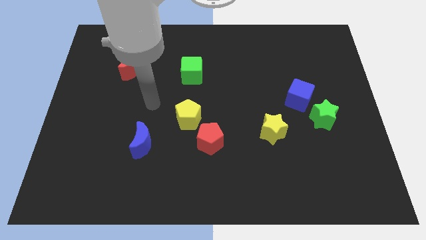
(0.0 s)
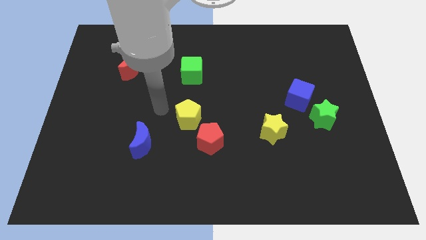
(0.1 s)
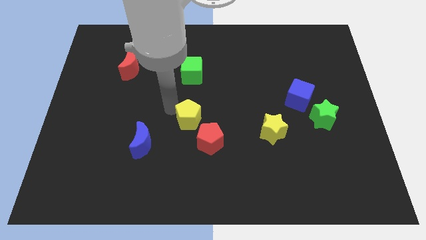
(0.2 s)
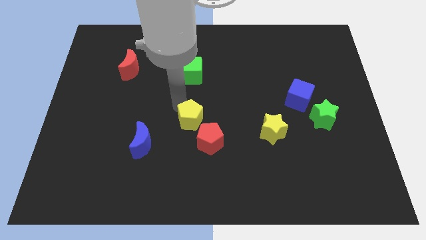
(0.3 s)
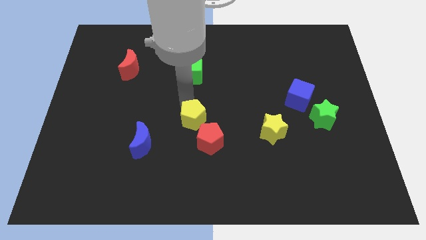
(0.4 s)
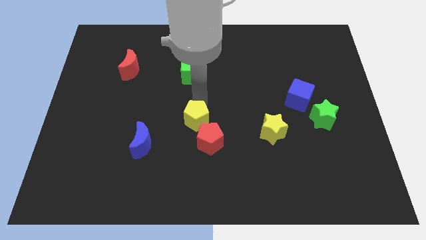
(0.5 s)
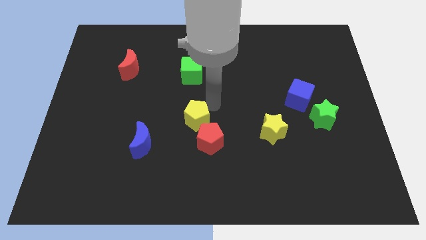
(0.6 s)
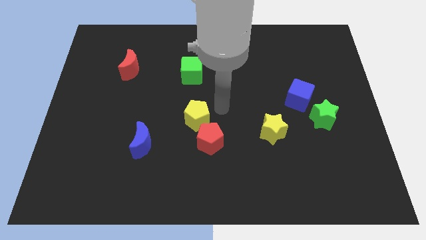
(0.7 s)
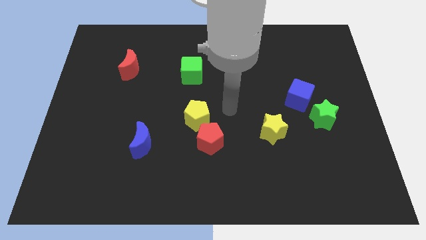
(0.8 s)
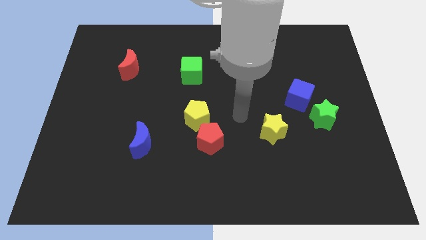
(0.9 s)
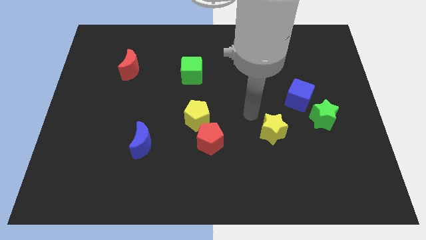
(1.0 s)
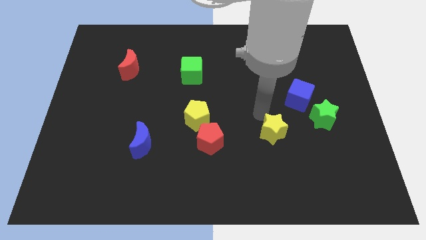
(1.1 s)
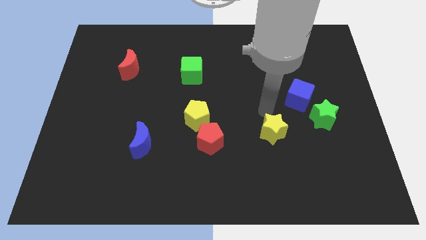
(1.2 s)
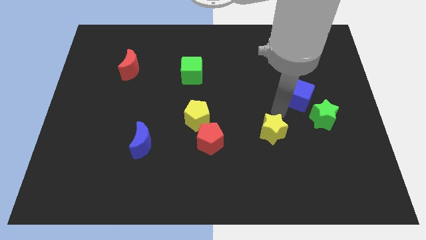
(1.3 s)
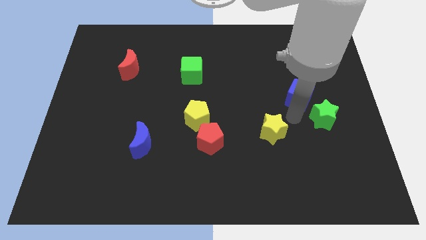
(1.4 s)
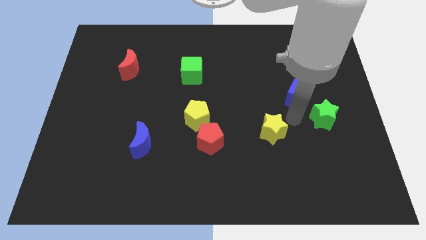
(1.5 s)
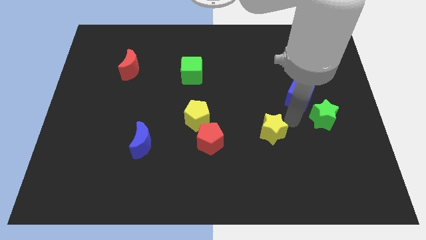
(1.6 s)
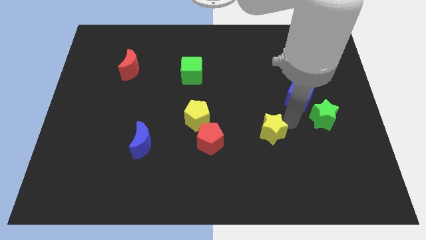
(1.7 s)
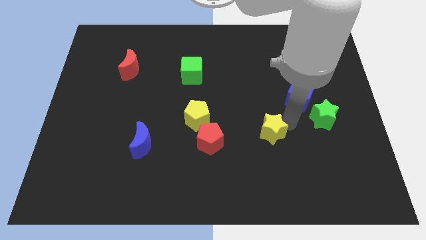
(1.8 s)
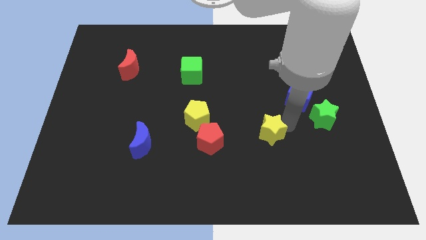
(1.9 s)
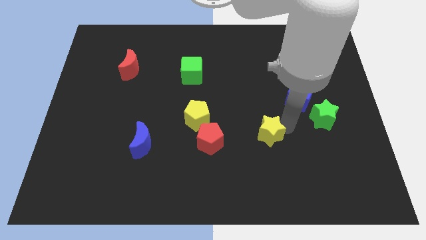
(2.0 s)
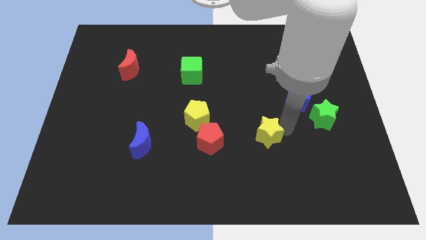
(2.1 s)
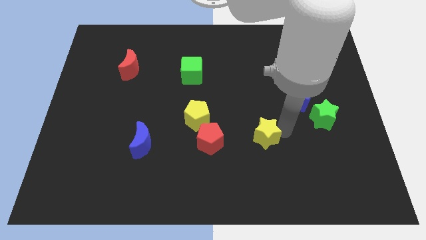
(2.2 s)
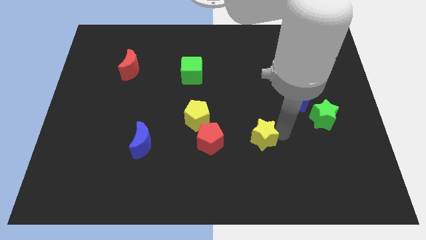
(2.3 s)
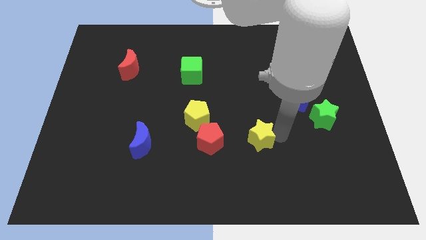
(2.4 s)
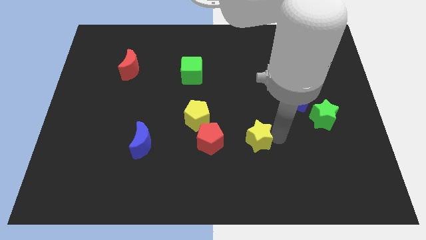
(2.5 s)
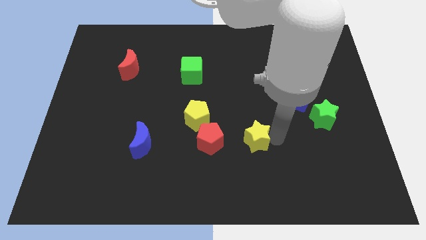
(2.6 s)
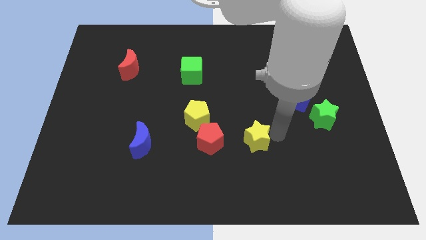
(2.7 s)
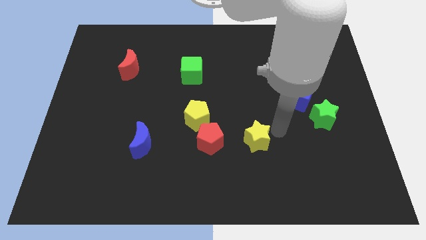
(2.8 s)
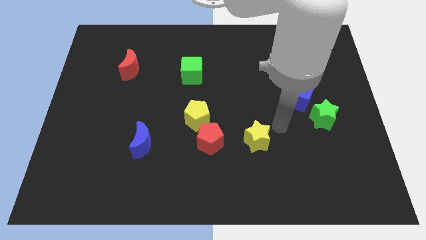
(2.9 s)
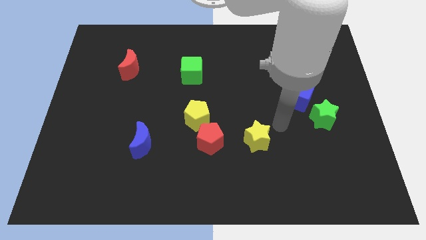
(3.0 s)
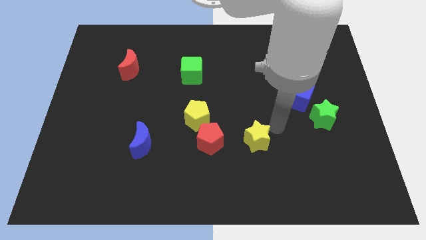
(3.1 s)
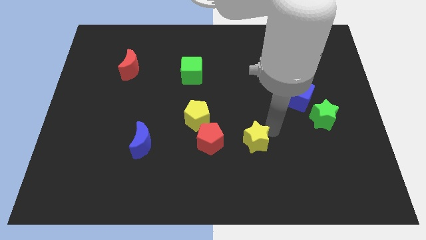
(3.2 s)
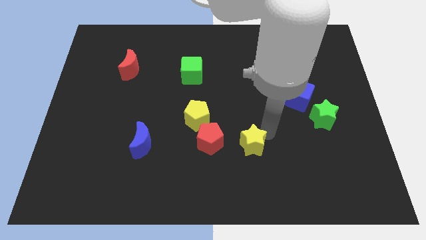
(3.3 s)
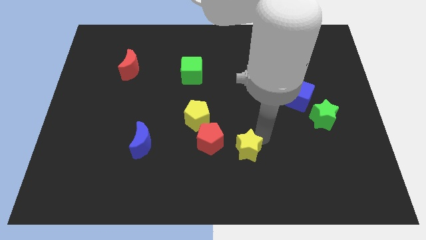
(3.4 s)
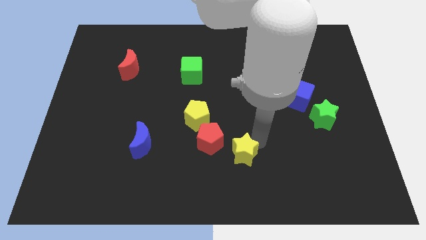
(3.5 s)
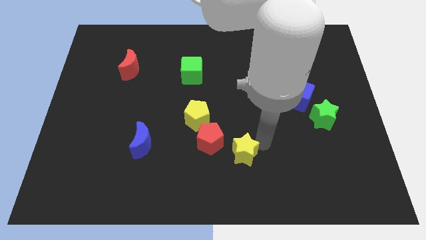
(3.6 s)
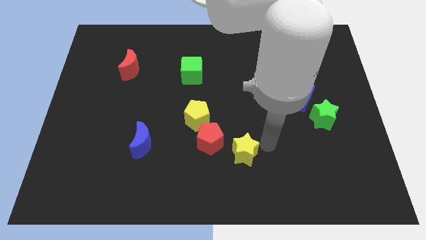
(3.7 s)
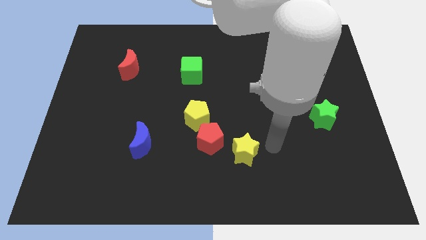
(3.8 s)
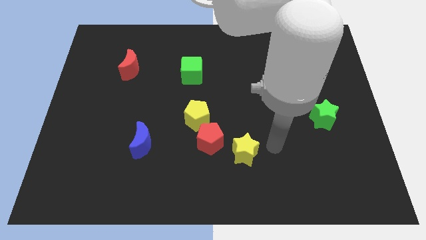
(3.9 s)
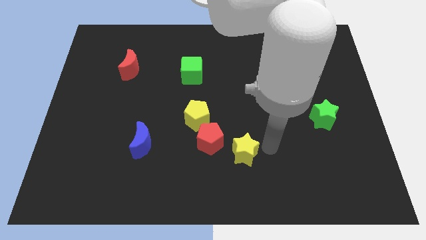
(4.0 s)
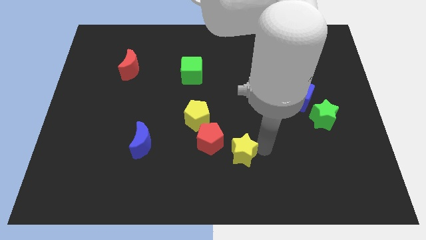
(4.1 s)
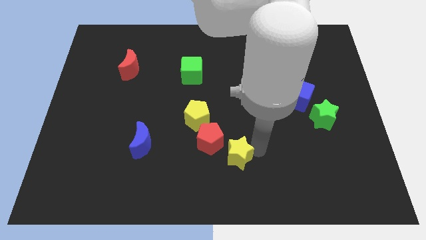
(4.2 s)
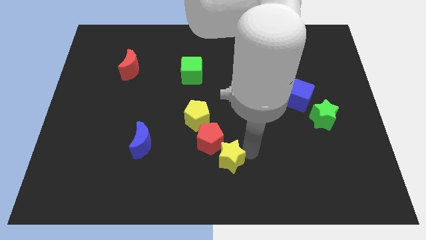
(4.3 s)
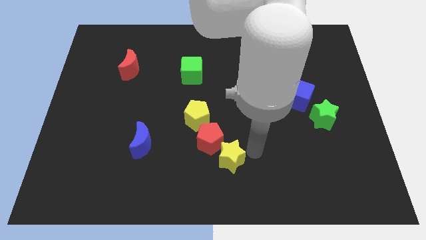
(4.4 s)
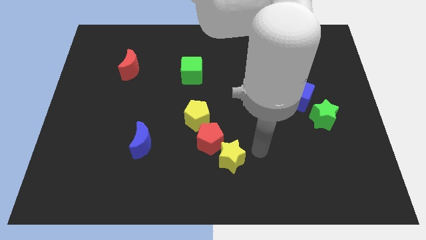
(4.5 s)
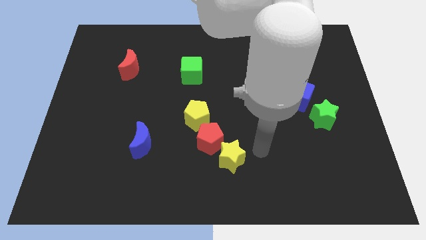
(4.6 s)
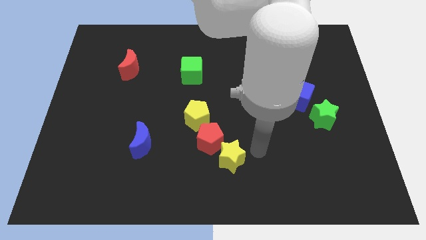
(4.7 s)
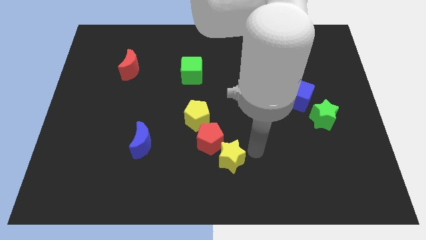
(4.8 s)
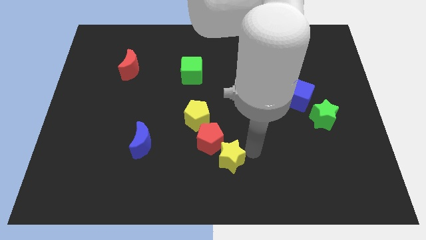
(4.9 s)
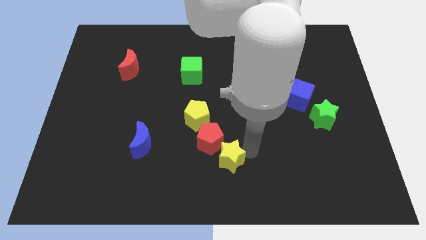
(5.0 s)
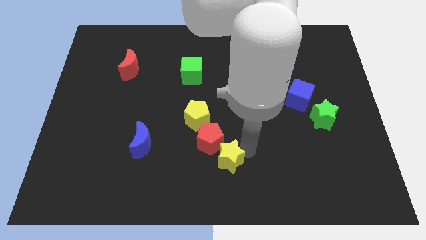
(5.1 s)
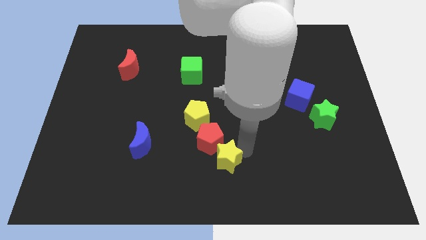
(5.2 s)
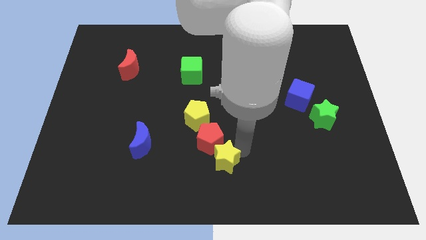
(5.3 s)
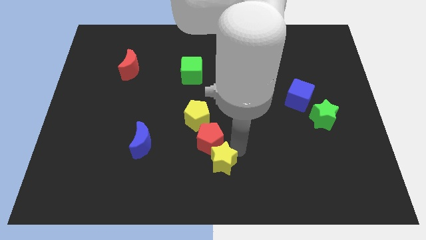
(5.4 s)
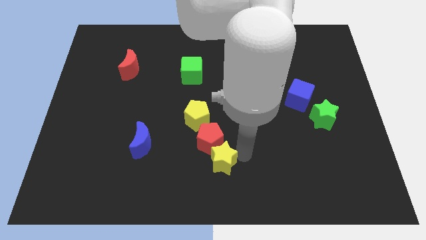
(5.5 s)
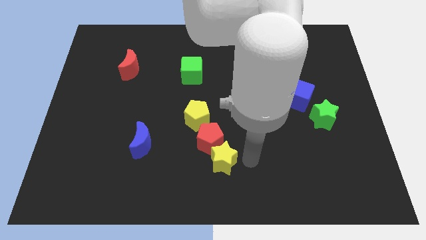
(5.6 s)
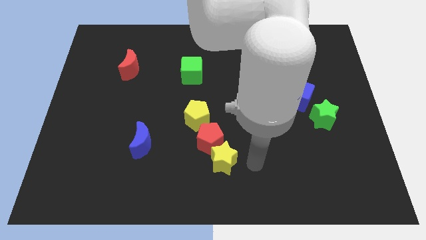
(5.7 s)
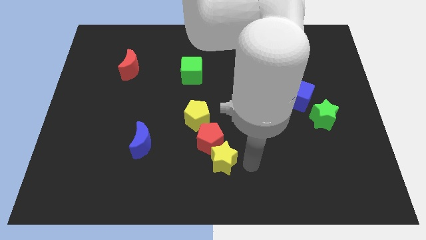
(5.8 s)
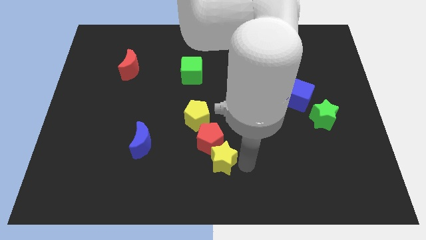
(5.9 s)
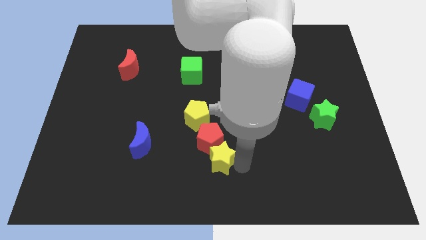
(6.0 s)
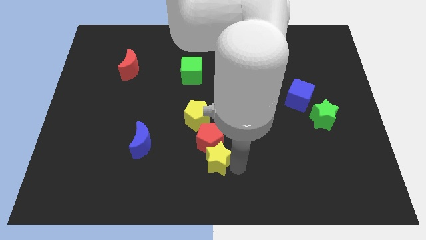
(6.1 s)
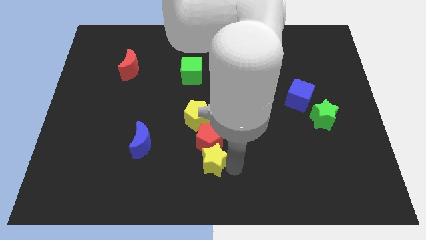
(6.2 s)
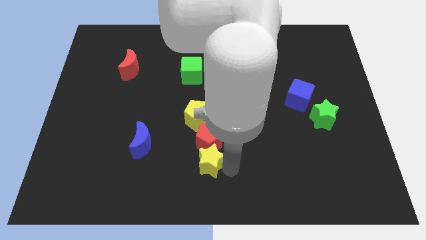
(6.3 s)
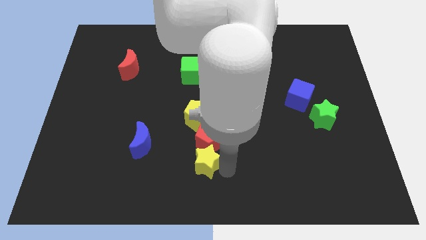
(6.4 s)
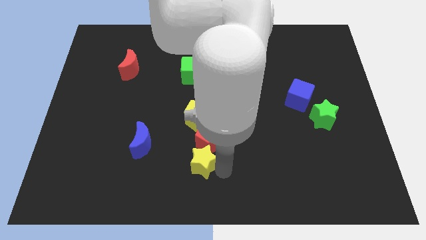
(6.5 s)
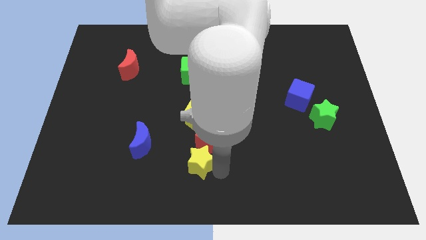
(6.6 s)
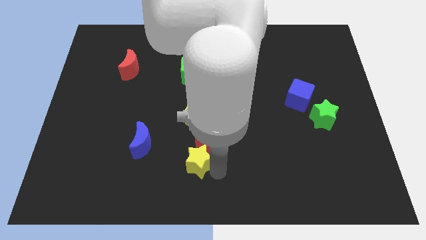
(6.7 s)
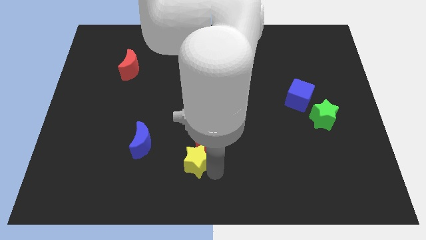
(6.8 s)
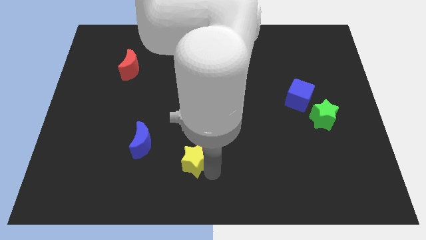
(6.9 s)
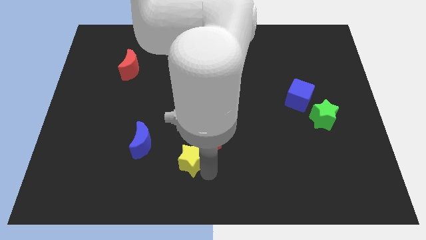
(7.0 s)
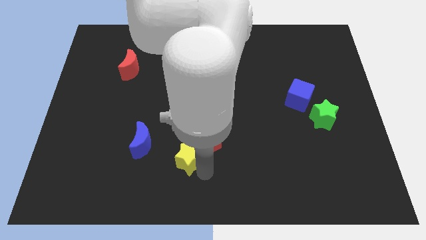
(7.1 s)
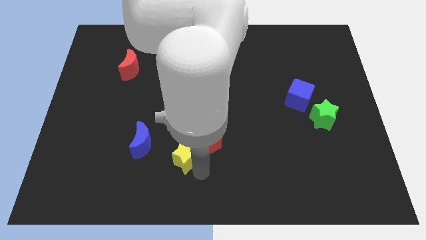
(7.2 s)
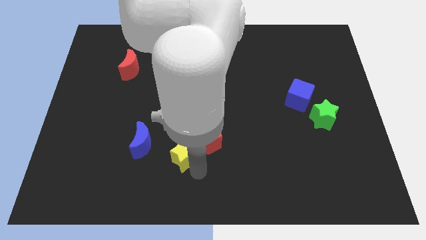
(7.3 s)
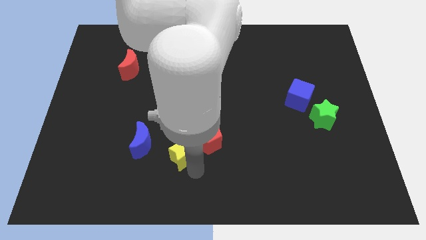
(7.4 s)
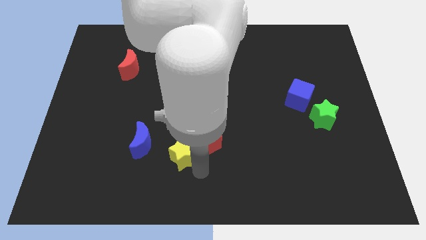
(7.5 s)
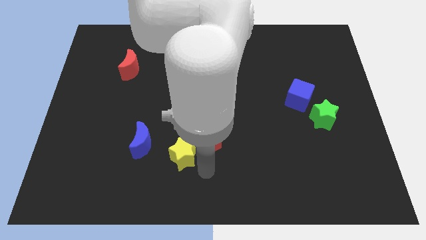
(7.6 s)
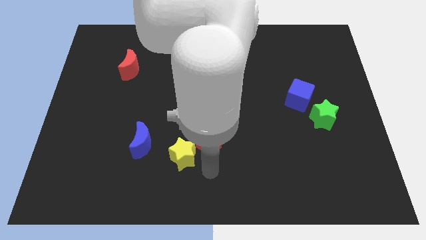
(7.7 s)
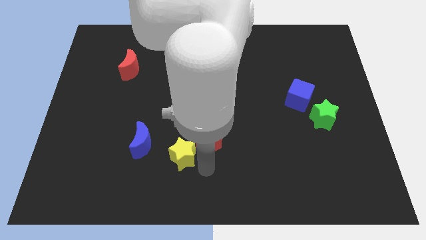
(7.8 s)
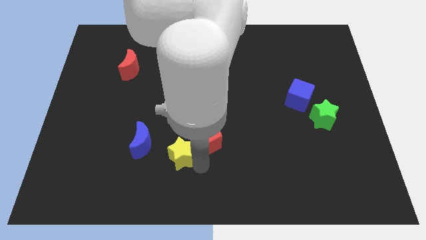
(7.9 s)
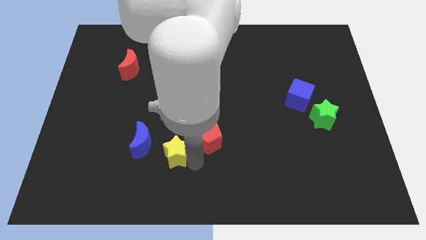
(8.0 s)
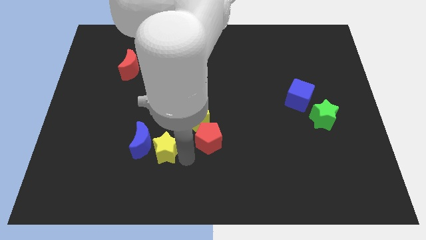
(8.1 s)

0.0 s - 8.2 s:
slide the yellow star to the blue moon
